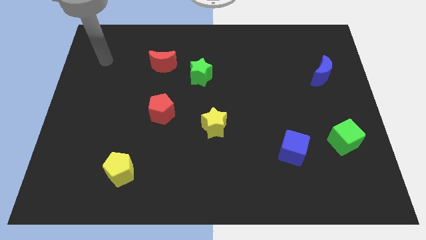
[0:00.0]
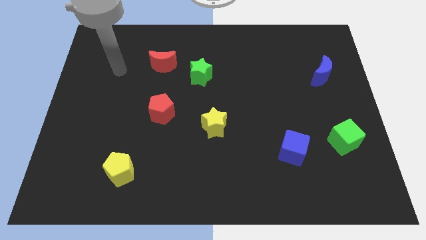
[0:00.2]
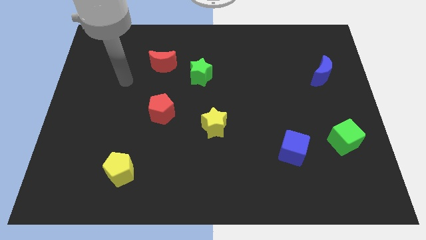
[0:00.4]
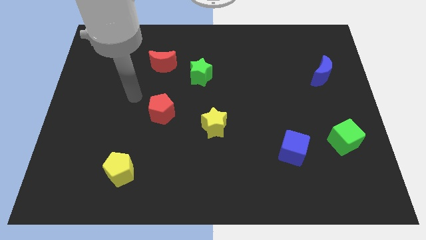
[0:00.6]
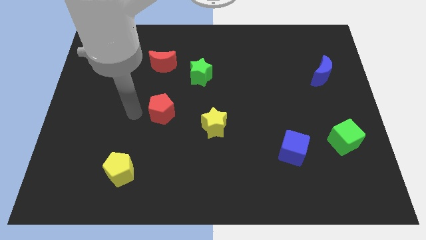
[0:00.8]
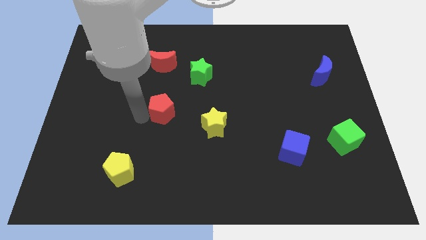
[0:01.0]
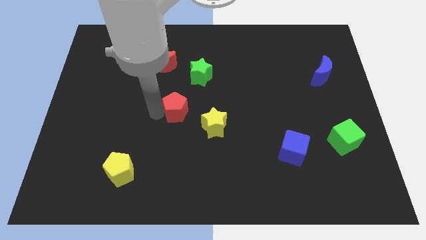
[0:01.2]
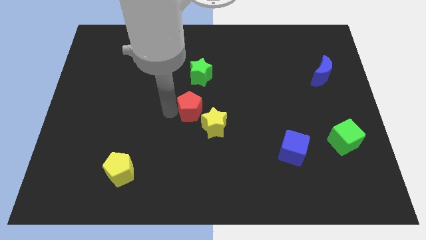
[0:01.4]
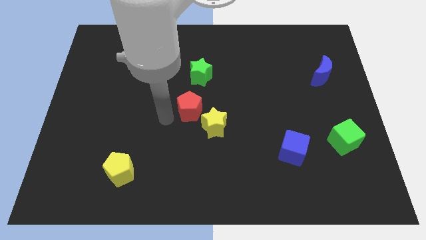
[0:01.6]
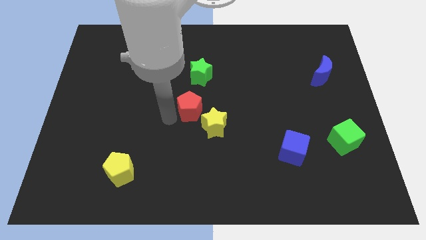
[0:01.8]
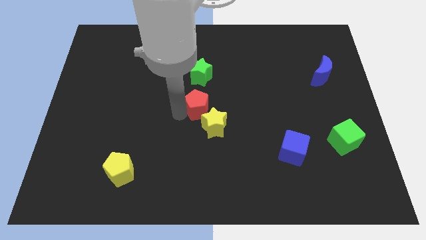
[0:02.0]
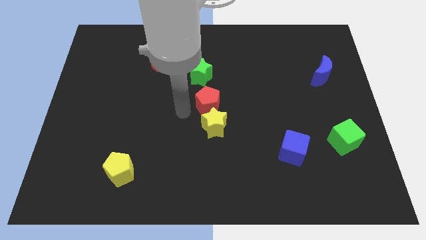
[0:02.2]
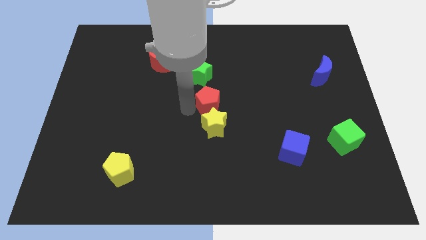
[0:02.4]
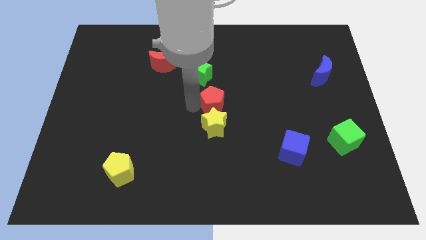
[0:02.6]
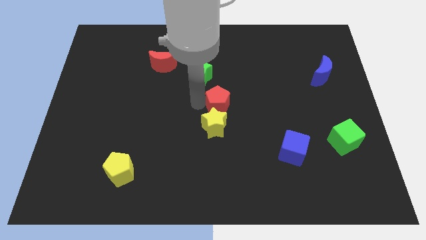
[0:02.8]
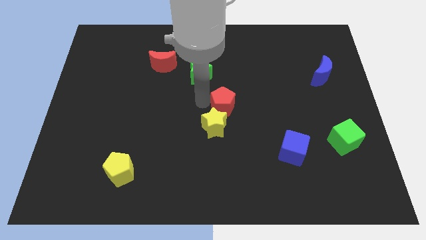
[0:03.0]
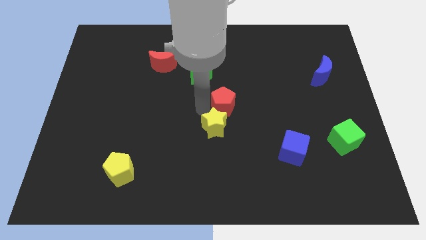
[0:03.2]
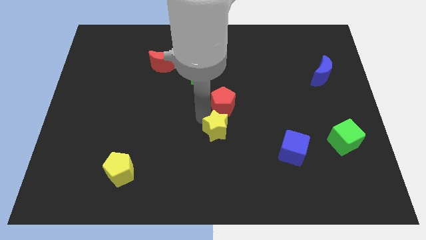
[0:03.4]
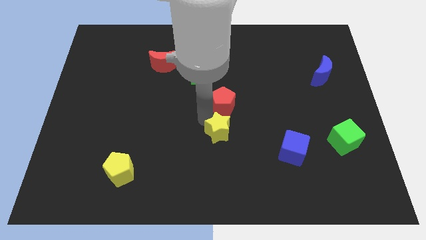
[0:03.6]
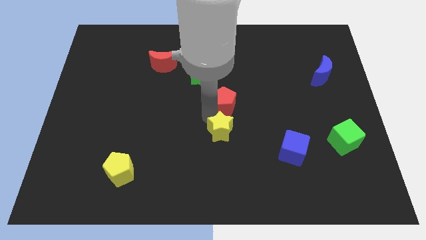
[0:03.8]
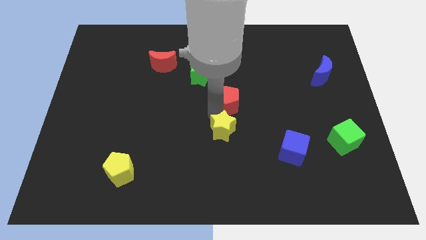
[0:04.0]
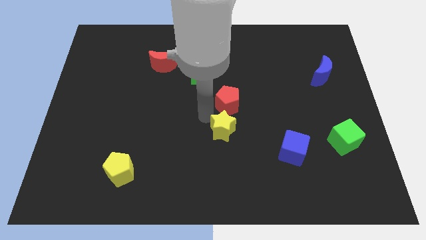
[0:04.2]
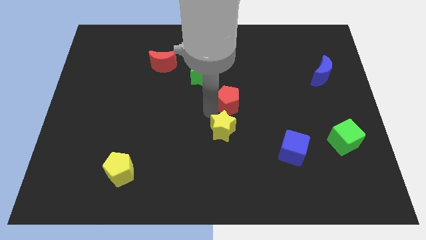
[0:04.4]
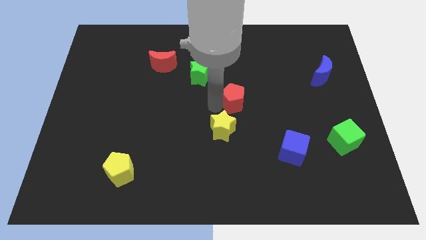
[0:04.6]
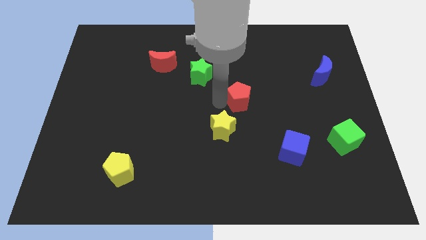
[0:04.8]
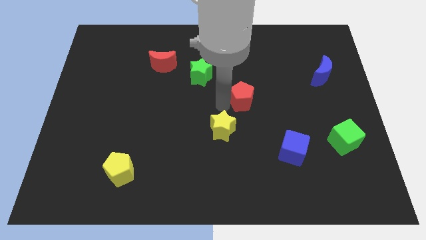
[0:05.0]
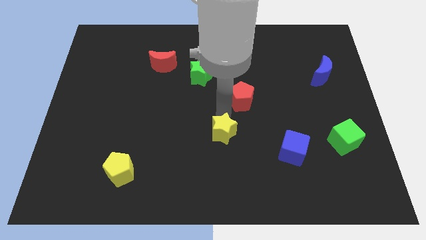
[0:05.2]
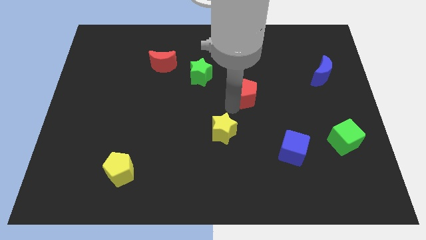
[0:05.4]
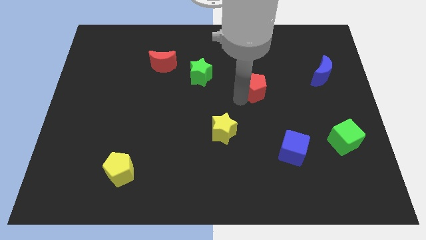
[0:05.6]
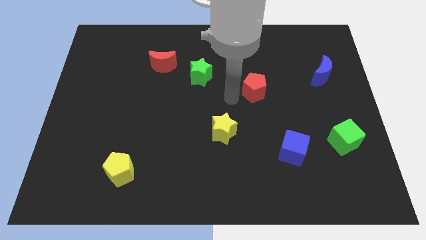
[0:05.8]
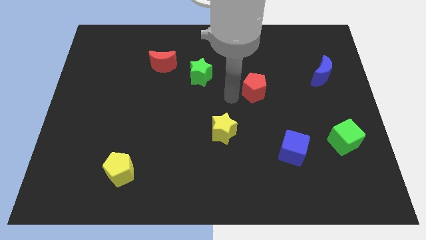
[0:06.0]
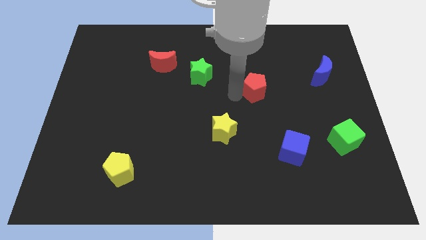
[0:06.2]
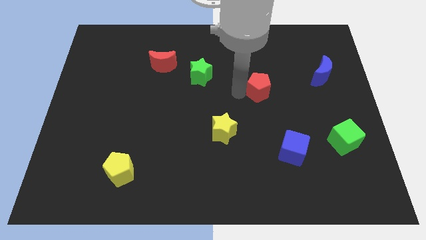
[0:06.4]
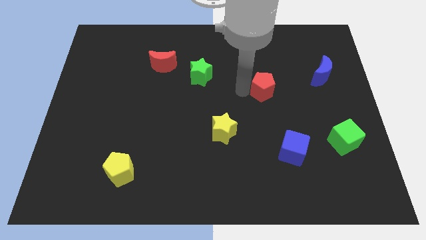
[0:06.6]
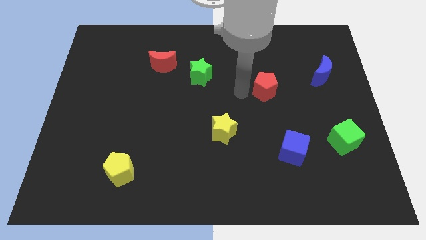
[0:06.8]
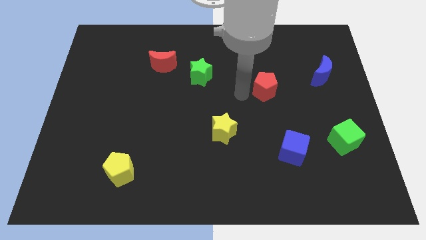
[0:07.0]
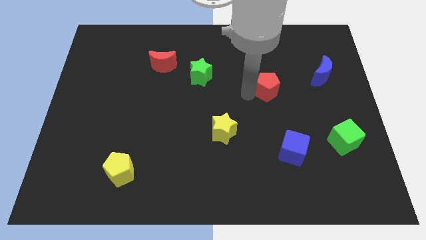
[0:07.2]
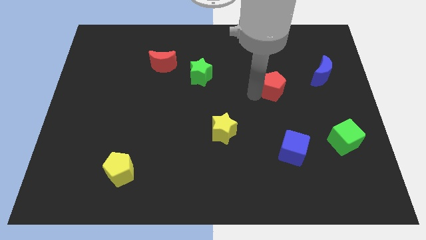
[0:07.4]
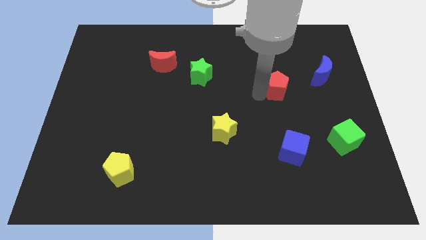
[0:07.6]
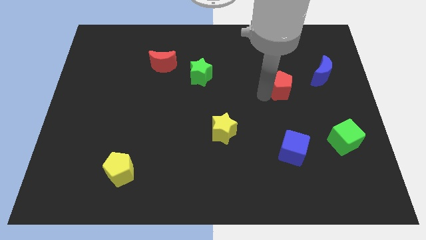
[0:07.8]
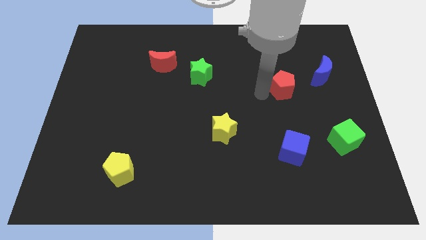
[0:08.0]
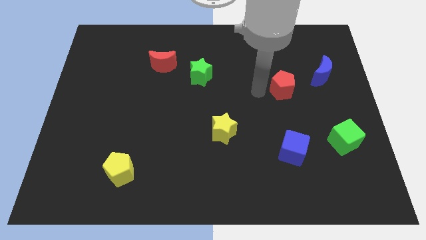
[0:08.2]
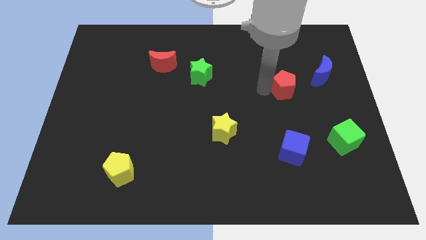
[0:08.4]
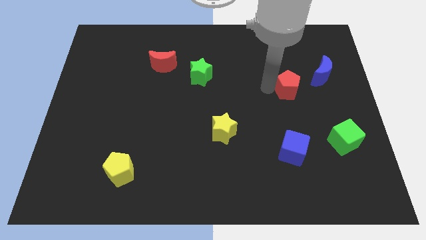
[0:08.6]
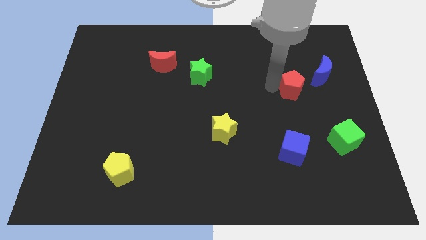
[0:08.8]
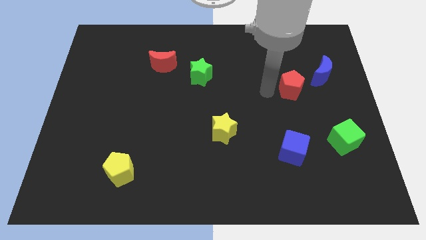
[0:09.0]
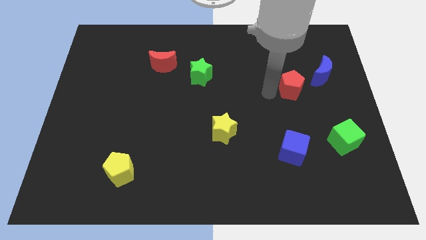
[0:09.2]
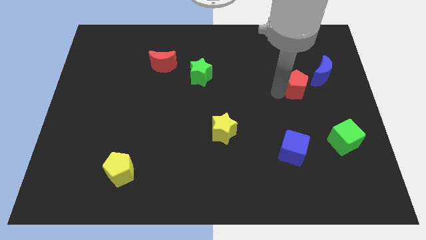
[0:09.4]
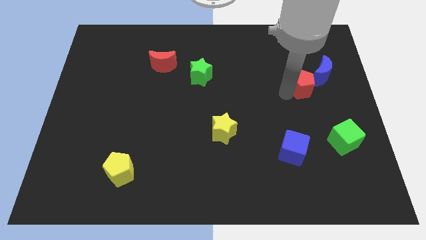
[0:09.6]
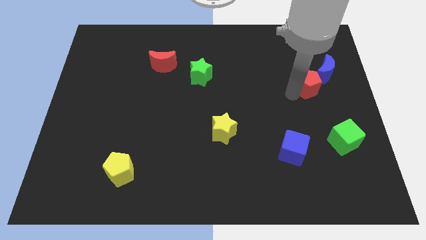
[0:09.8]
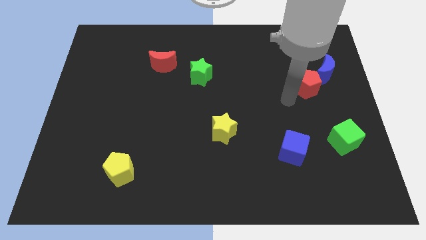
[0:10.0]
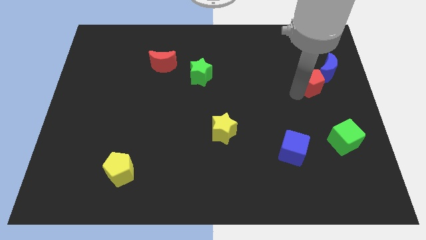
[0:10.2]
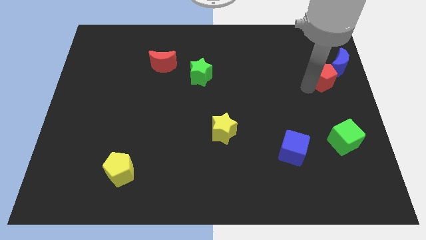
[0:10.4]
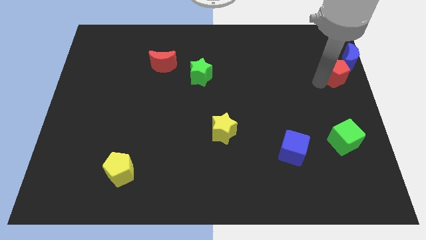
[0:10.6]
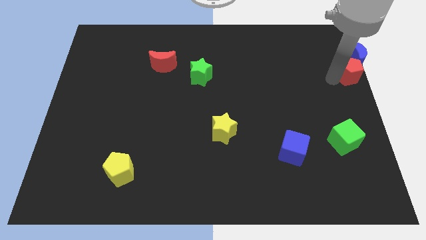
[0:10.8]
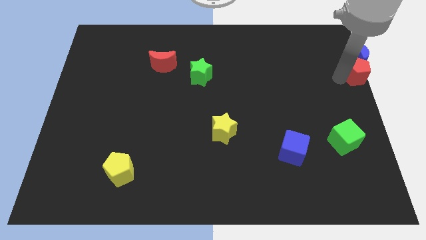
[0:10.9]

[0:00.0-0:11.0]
slide the red pentagon next to the blue moon

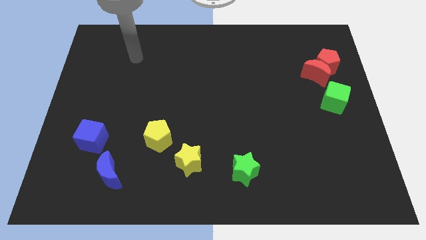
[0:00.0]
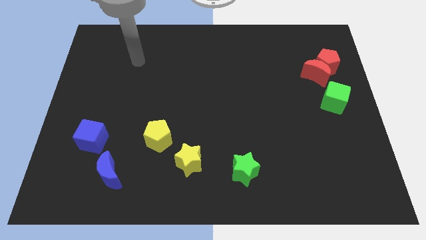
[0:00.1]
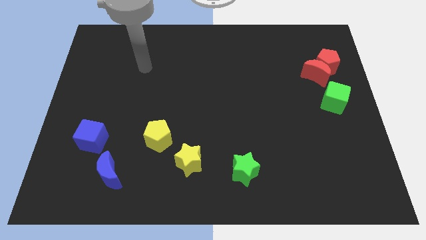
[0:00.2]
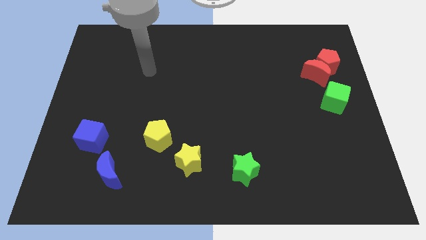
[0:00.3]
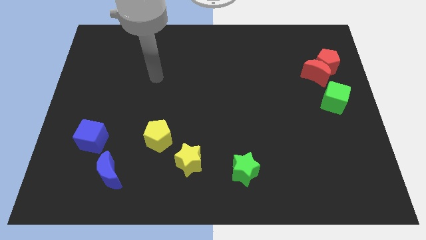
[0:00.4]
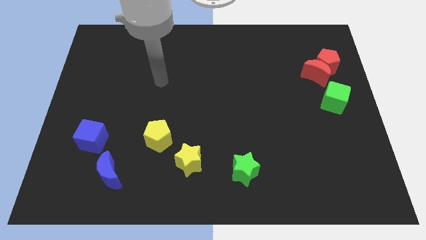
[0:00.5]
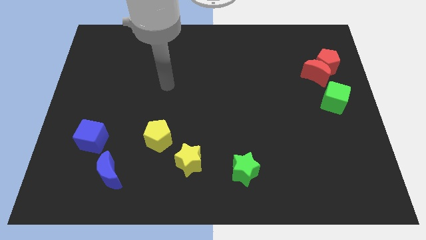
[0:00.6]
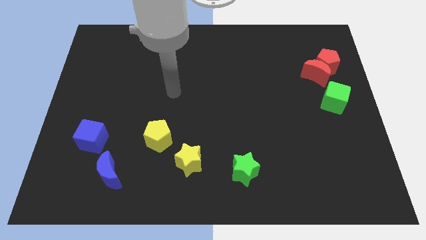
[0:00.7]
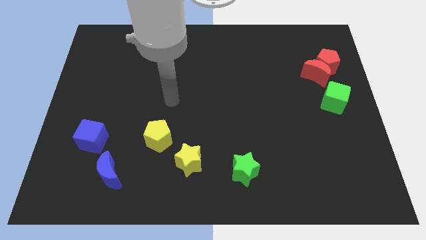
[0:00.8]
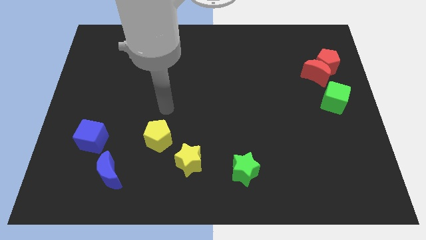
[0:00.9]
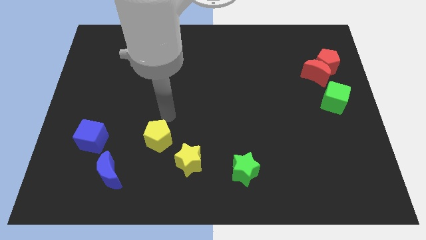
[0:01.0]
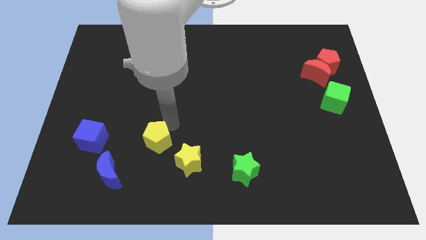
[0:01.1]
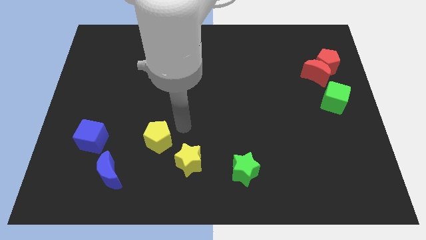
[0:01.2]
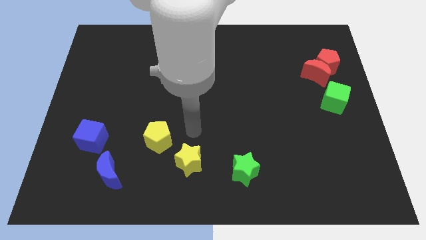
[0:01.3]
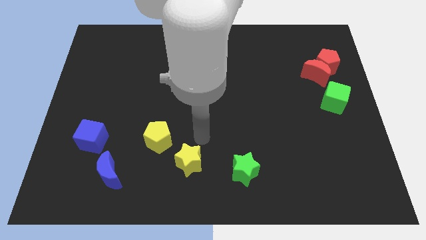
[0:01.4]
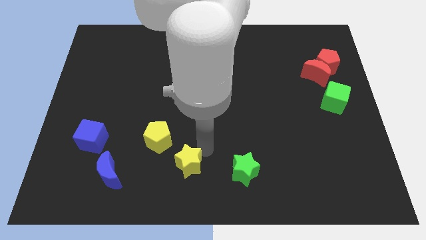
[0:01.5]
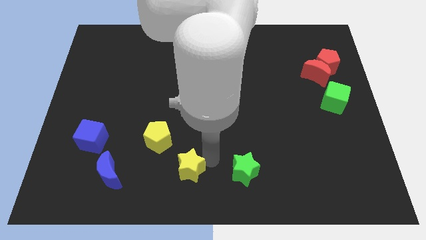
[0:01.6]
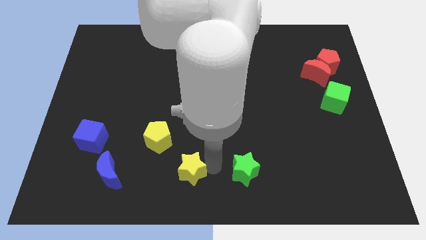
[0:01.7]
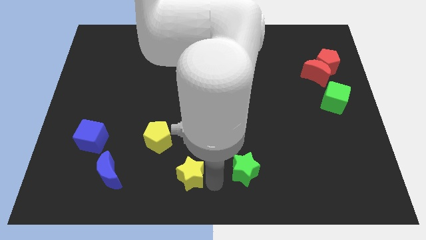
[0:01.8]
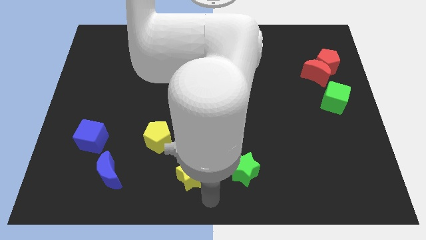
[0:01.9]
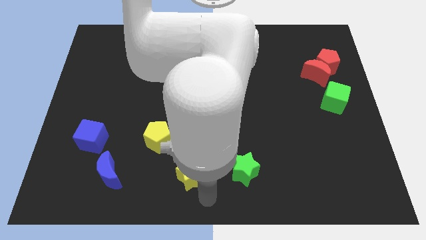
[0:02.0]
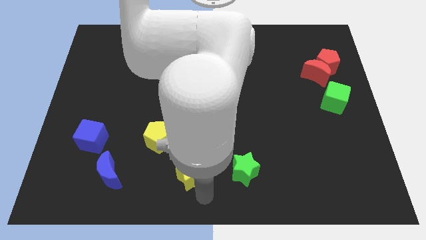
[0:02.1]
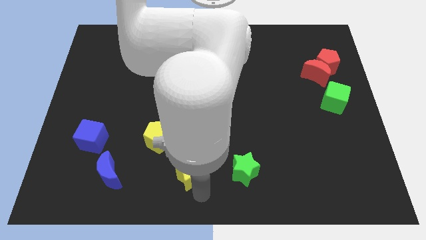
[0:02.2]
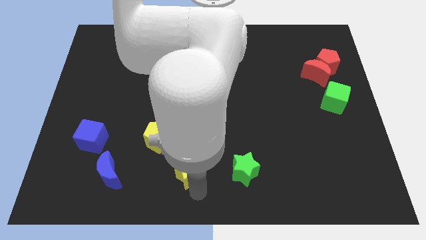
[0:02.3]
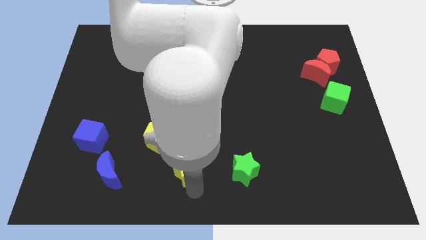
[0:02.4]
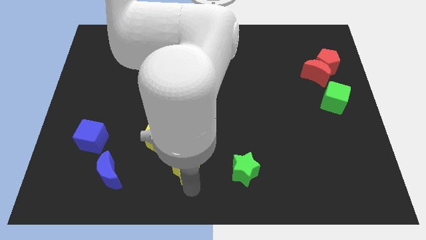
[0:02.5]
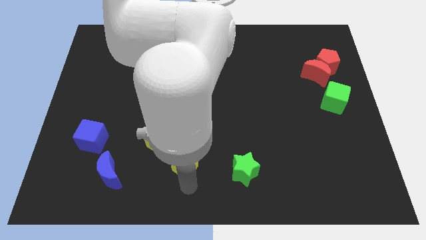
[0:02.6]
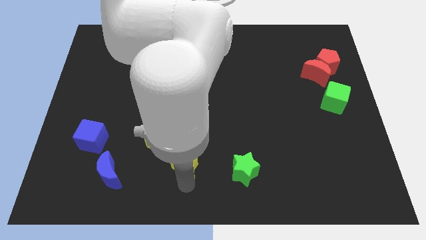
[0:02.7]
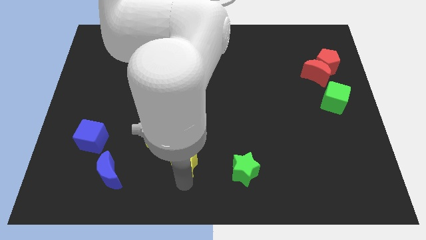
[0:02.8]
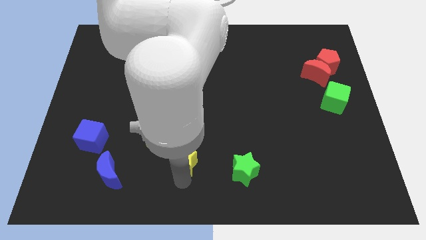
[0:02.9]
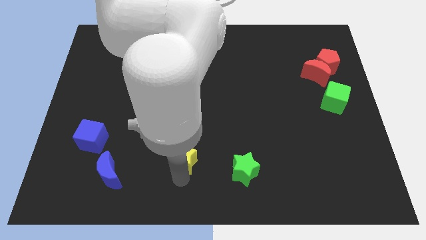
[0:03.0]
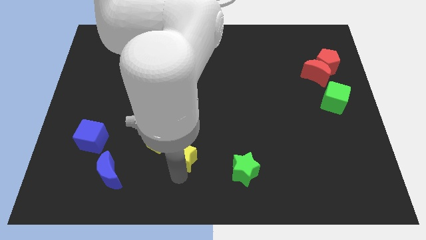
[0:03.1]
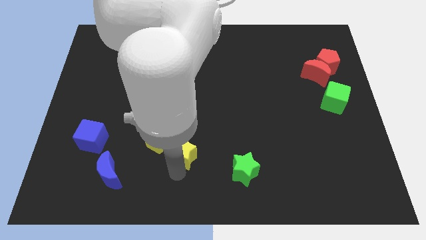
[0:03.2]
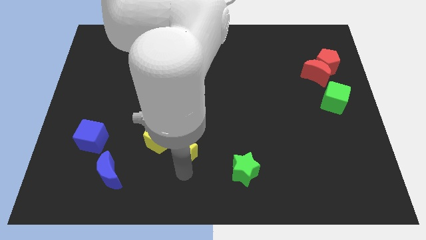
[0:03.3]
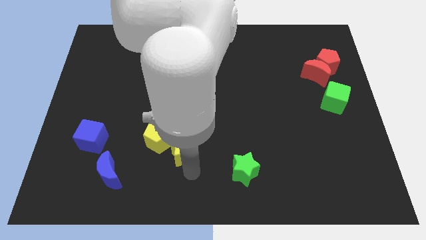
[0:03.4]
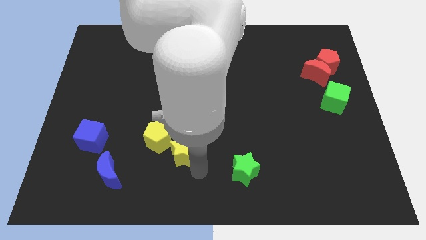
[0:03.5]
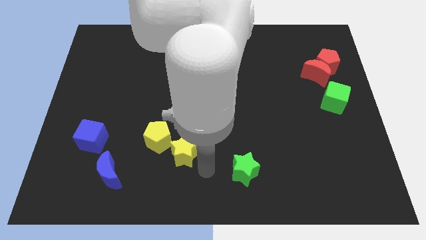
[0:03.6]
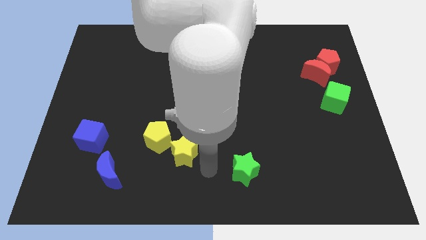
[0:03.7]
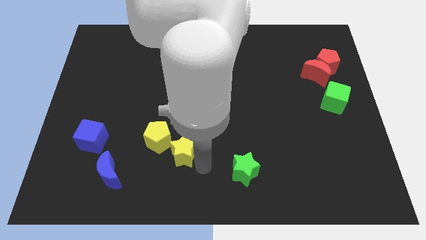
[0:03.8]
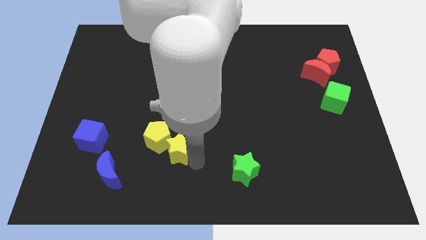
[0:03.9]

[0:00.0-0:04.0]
slide the yellow star to the yellow pentagon
